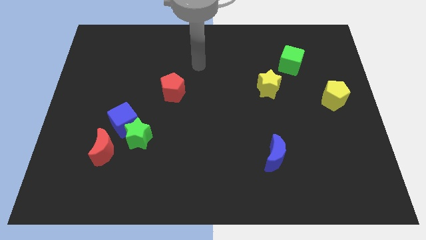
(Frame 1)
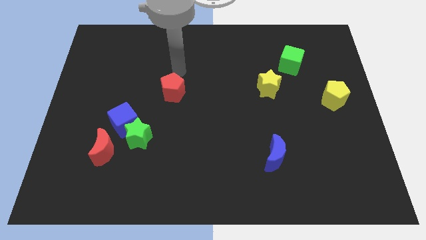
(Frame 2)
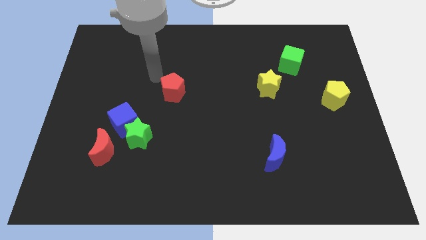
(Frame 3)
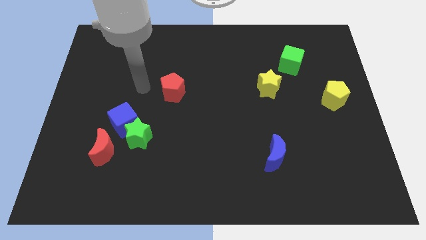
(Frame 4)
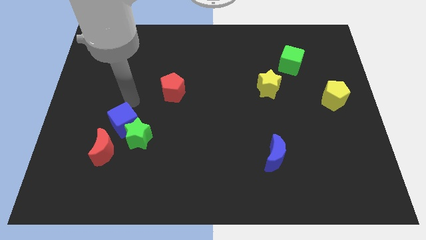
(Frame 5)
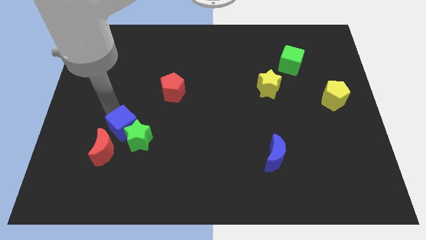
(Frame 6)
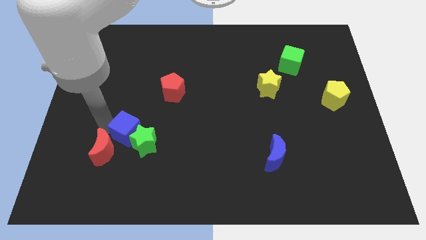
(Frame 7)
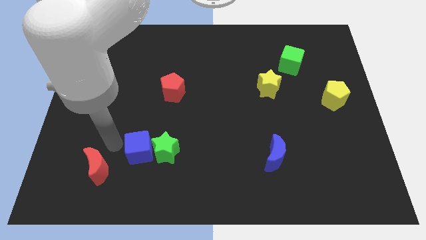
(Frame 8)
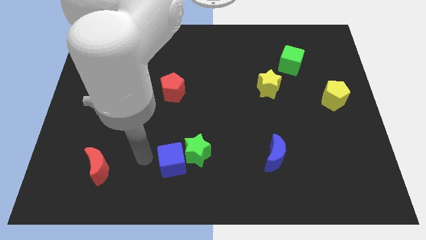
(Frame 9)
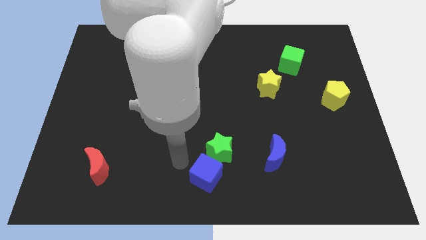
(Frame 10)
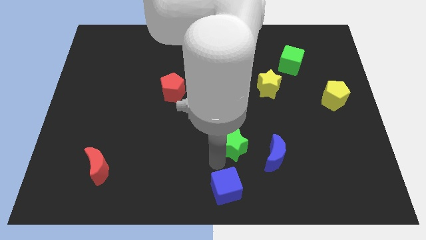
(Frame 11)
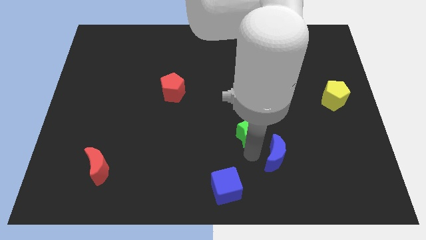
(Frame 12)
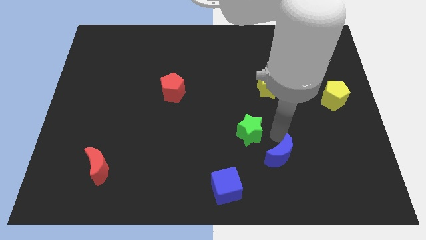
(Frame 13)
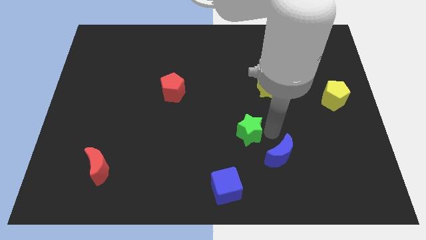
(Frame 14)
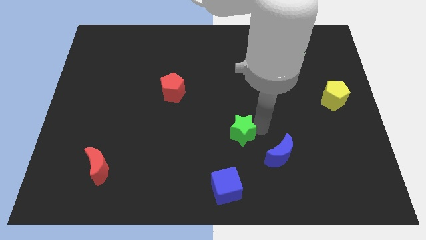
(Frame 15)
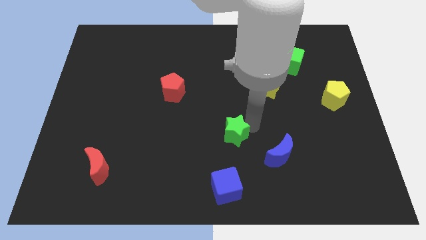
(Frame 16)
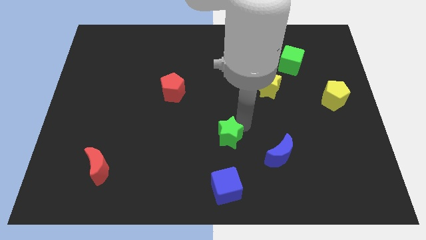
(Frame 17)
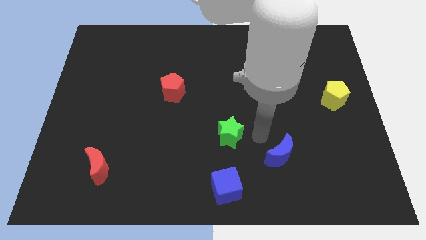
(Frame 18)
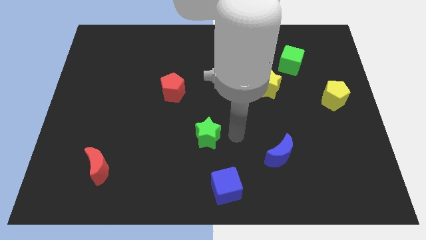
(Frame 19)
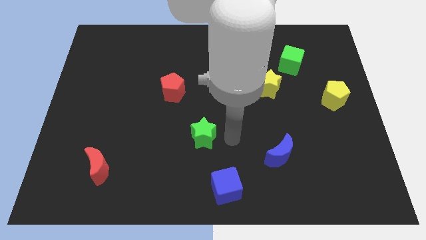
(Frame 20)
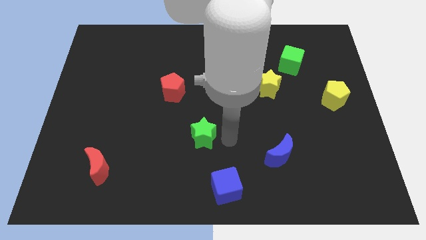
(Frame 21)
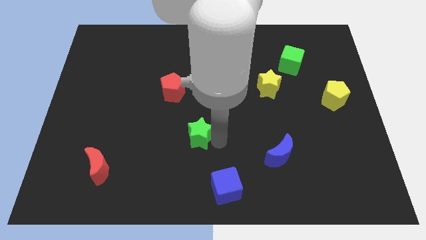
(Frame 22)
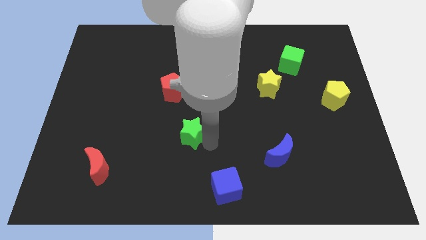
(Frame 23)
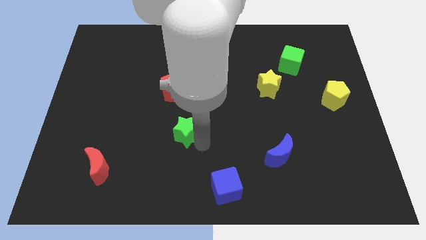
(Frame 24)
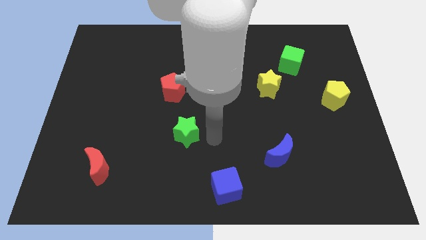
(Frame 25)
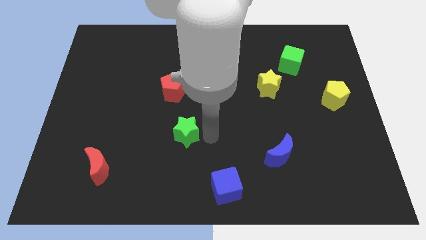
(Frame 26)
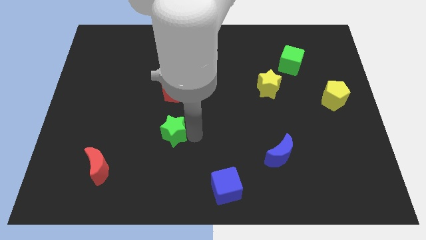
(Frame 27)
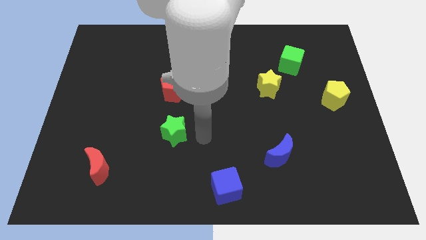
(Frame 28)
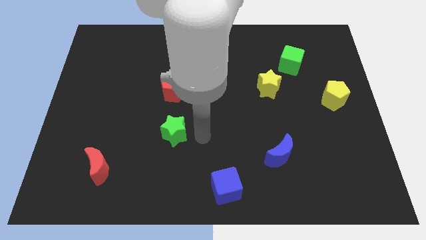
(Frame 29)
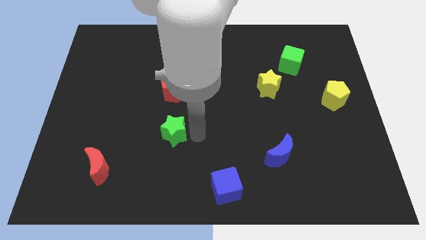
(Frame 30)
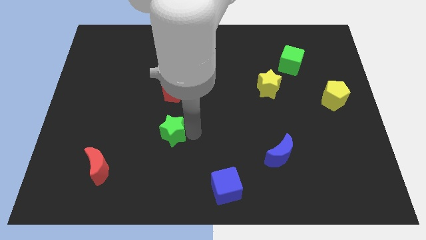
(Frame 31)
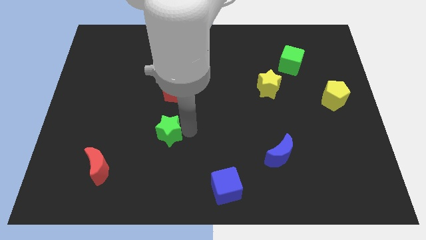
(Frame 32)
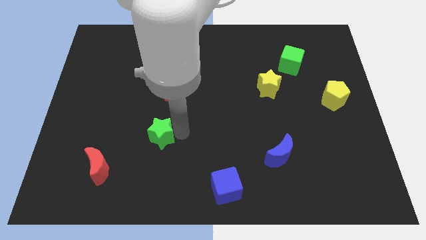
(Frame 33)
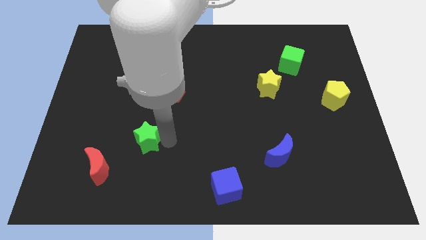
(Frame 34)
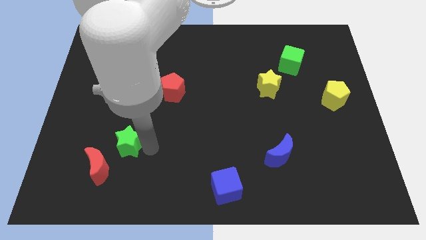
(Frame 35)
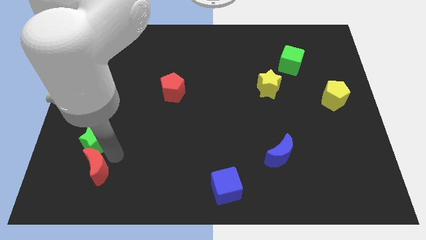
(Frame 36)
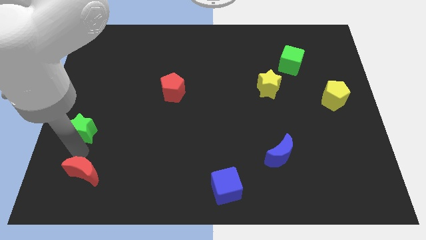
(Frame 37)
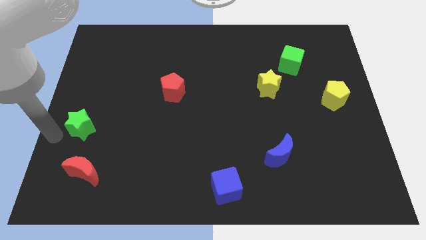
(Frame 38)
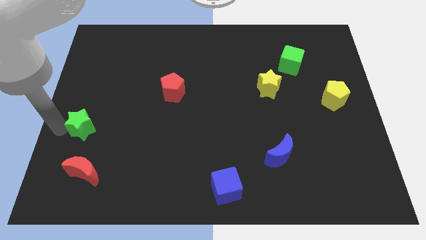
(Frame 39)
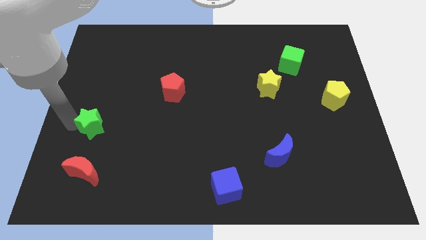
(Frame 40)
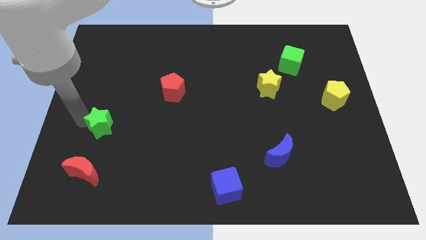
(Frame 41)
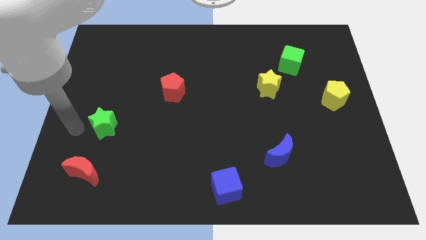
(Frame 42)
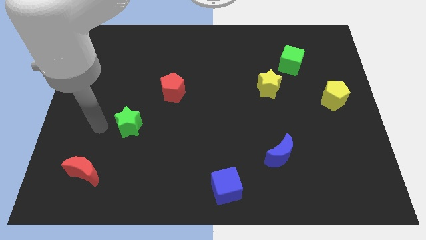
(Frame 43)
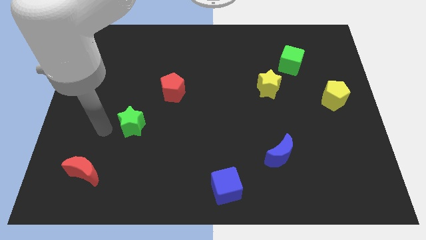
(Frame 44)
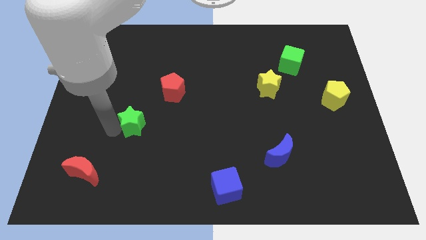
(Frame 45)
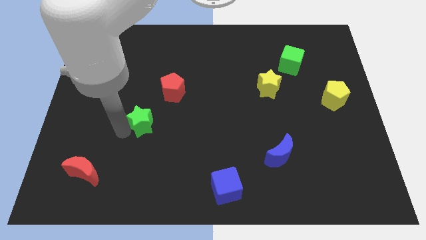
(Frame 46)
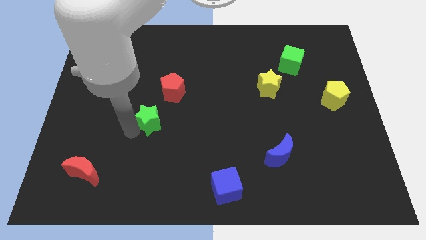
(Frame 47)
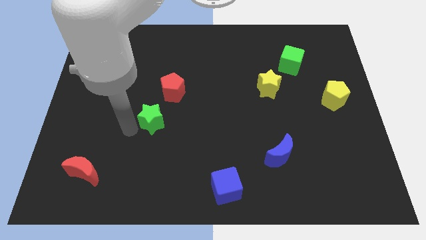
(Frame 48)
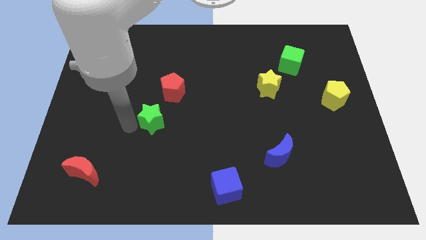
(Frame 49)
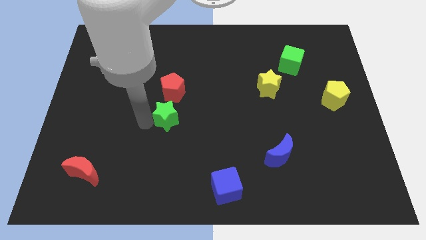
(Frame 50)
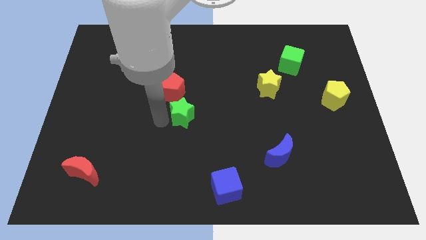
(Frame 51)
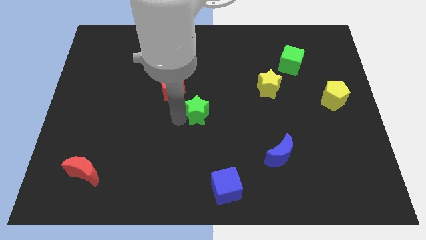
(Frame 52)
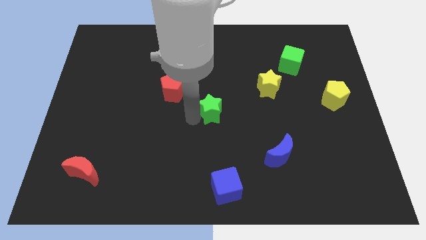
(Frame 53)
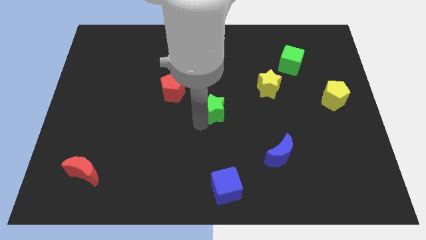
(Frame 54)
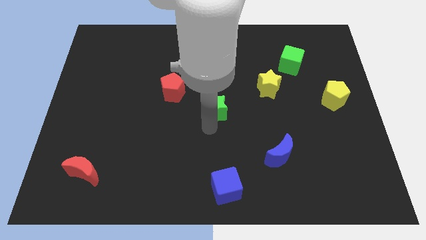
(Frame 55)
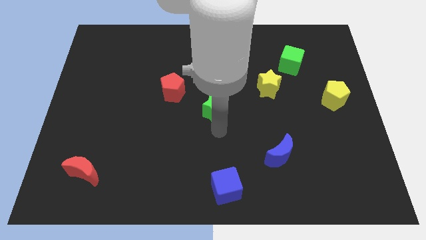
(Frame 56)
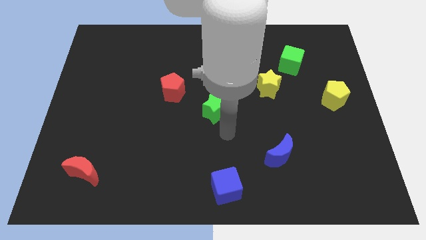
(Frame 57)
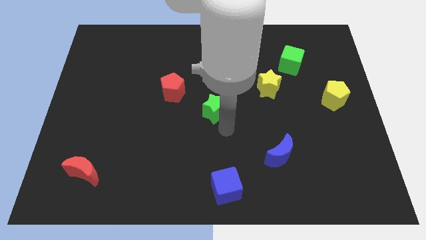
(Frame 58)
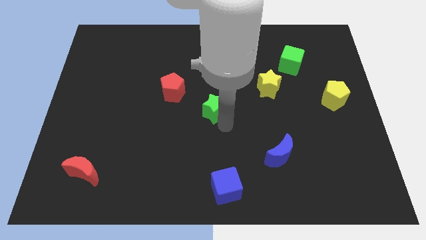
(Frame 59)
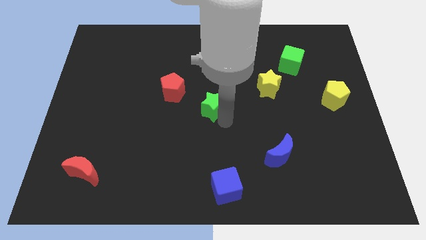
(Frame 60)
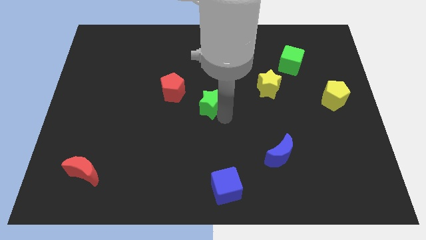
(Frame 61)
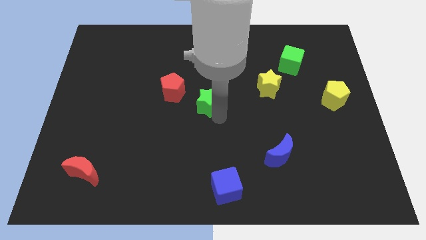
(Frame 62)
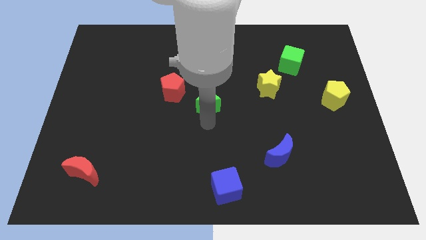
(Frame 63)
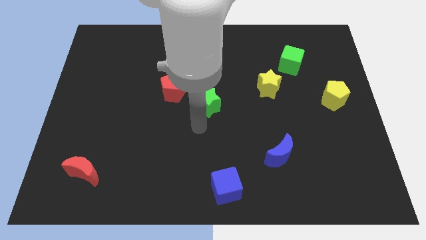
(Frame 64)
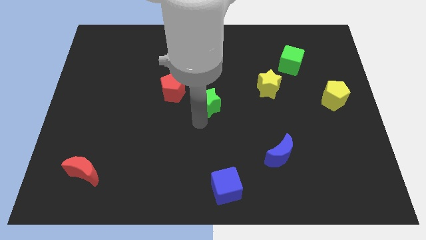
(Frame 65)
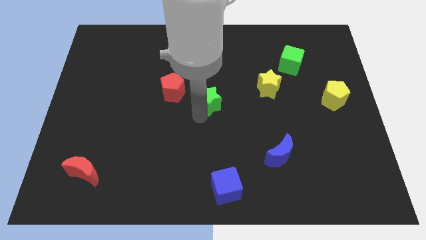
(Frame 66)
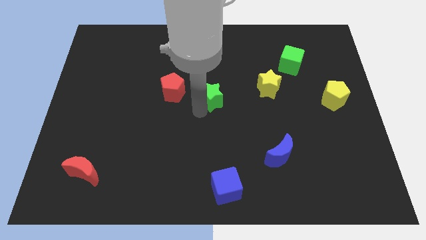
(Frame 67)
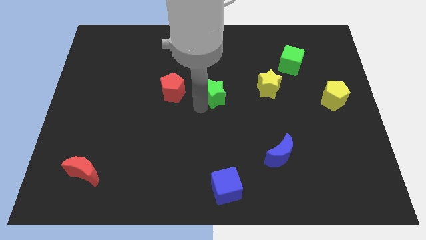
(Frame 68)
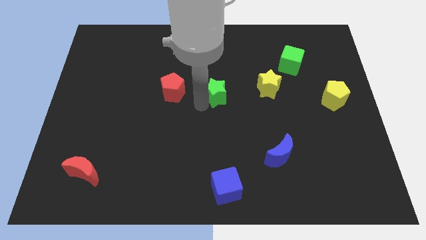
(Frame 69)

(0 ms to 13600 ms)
move the green star diagonally upwards and right

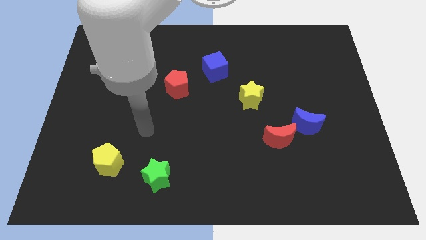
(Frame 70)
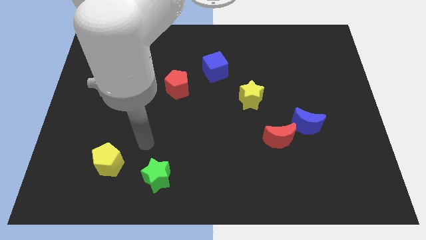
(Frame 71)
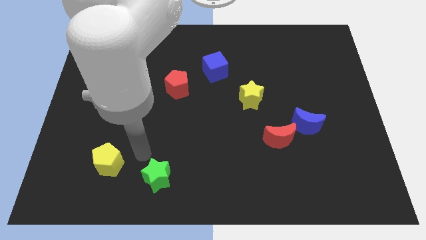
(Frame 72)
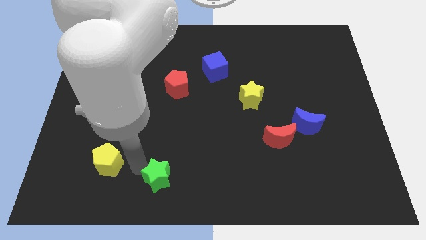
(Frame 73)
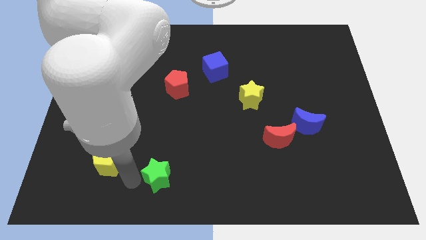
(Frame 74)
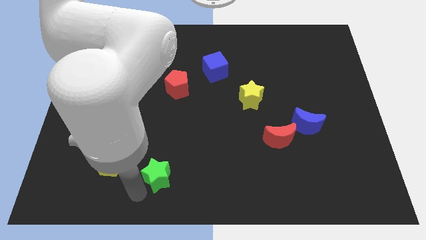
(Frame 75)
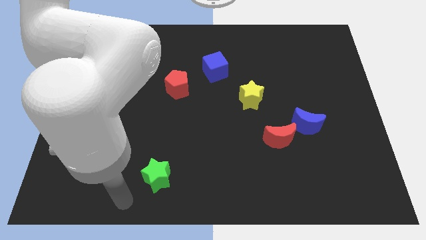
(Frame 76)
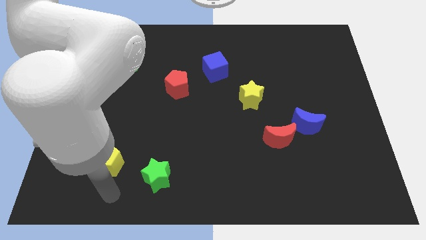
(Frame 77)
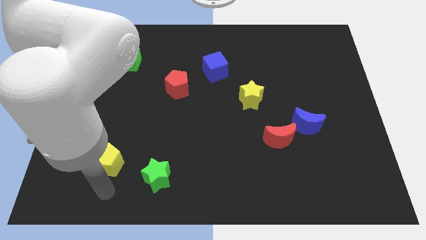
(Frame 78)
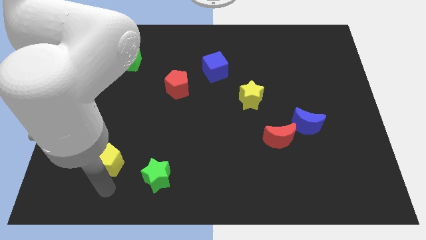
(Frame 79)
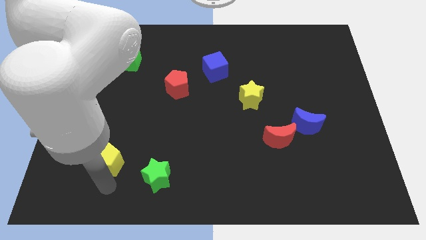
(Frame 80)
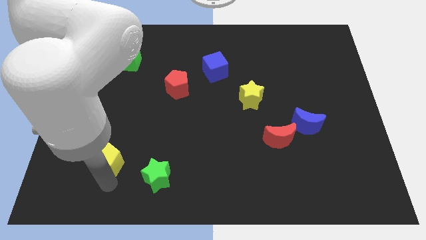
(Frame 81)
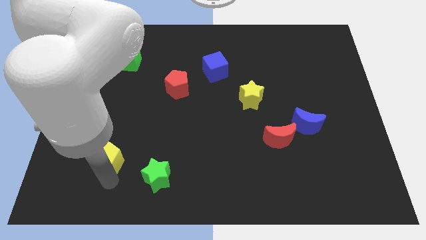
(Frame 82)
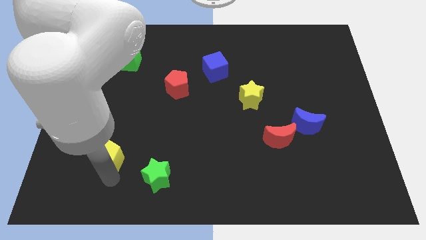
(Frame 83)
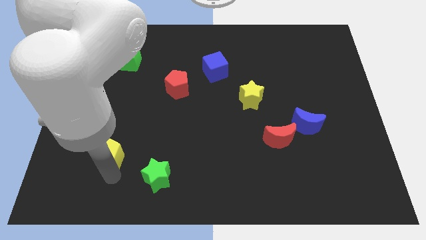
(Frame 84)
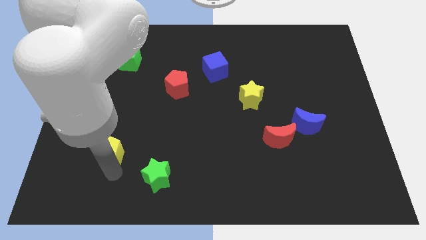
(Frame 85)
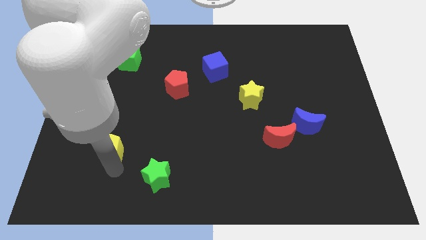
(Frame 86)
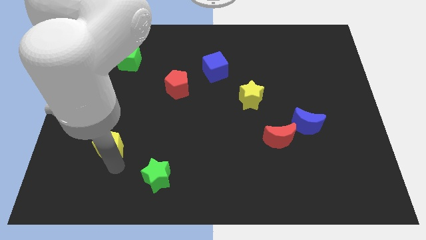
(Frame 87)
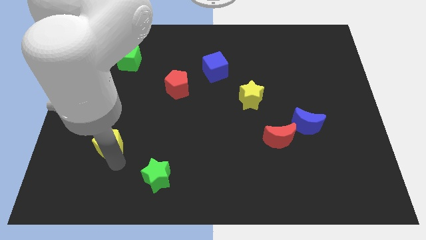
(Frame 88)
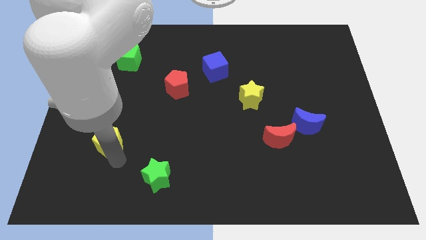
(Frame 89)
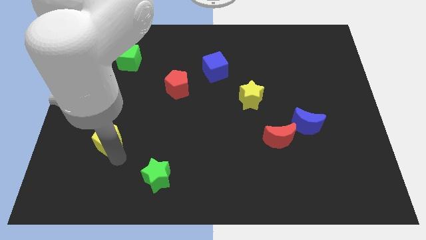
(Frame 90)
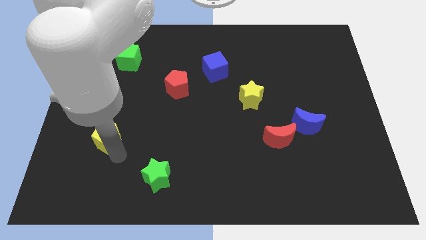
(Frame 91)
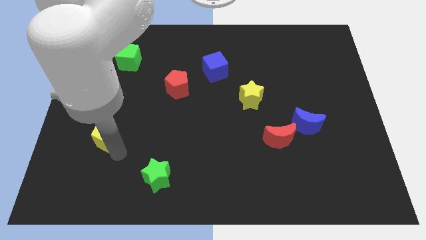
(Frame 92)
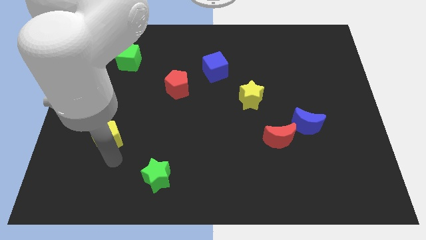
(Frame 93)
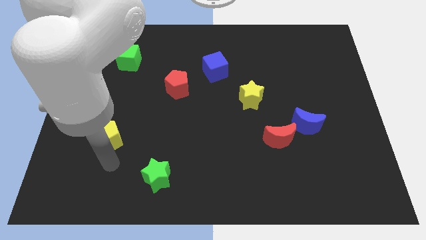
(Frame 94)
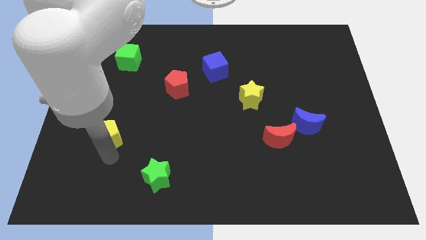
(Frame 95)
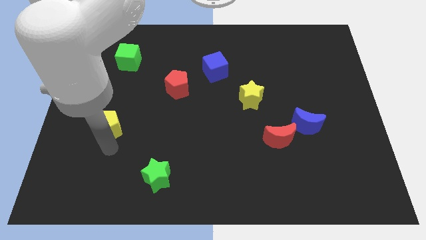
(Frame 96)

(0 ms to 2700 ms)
move the yellow pentagon up a little
